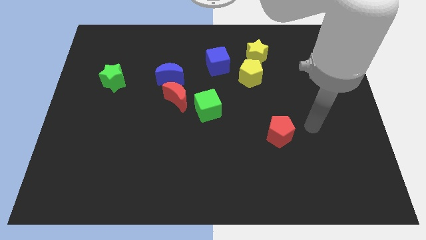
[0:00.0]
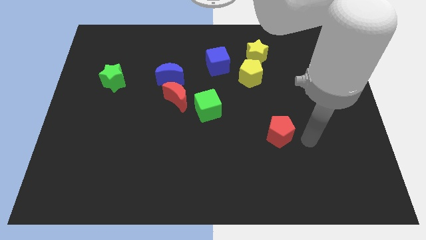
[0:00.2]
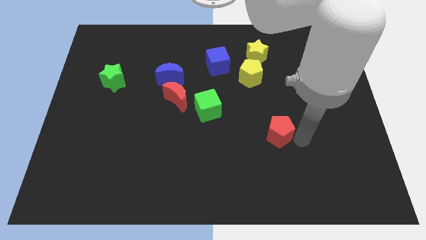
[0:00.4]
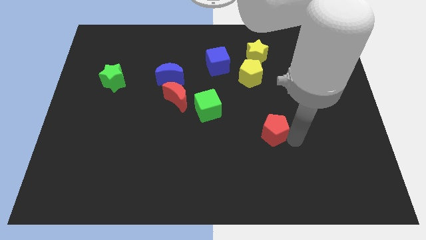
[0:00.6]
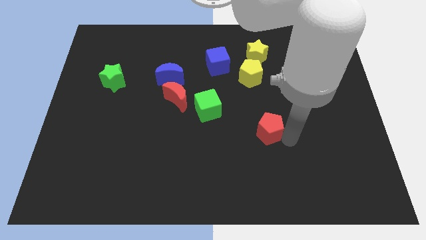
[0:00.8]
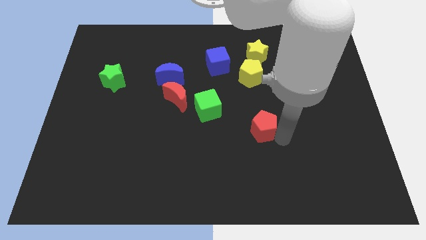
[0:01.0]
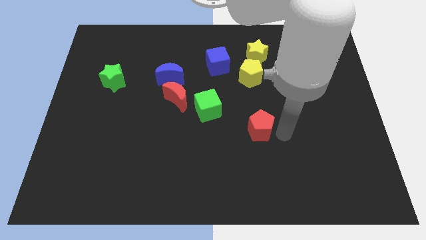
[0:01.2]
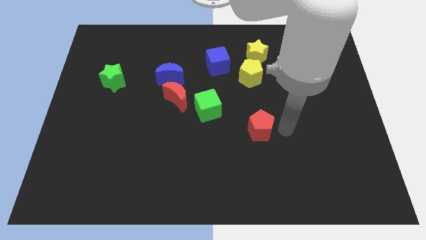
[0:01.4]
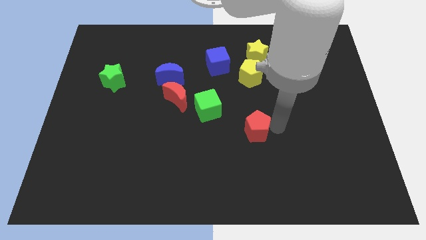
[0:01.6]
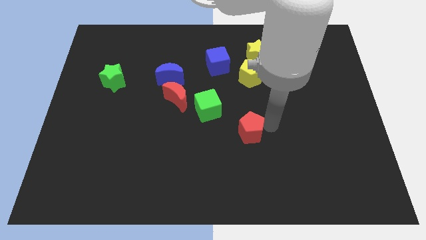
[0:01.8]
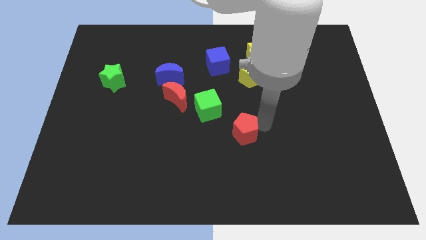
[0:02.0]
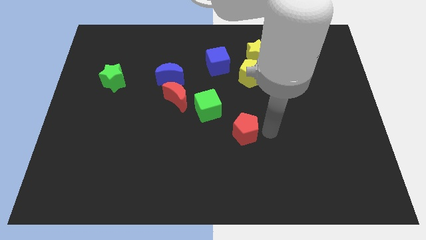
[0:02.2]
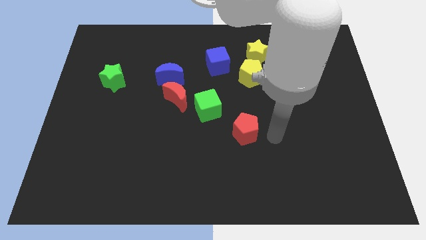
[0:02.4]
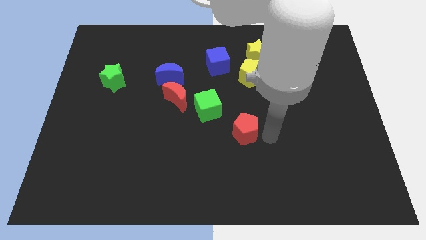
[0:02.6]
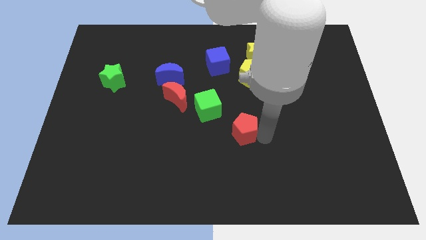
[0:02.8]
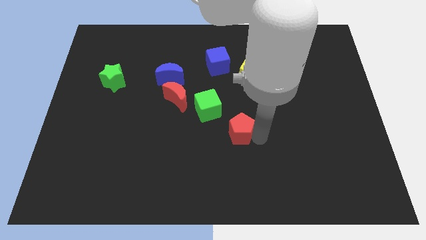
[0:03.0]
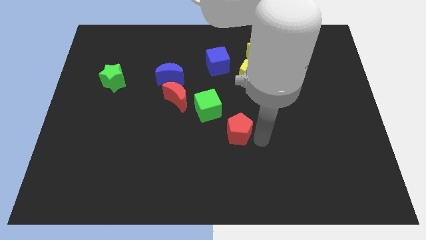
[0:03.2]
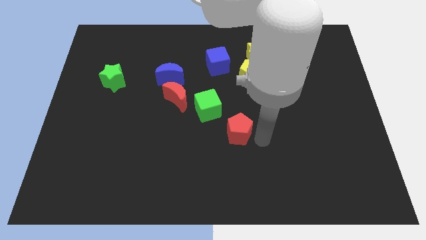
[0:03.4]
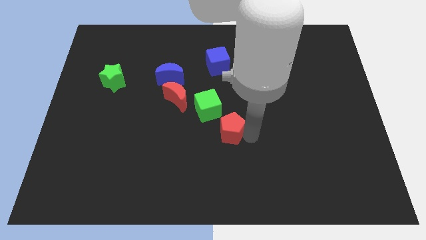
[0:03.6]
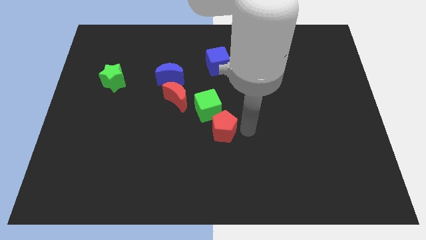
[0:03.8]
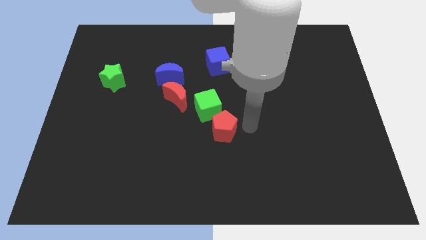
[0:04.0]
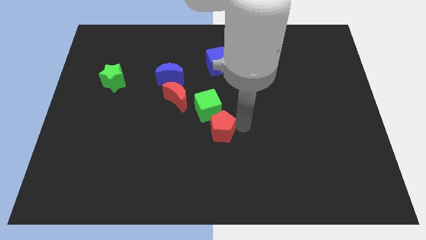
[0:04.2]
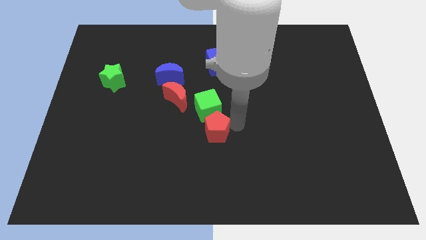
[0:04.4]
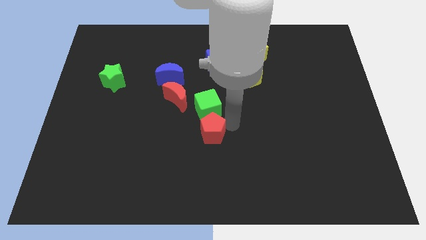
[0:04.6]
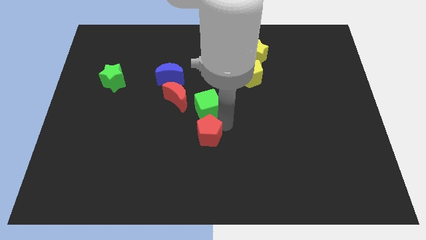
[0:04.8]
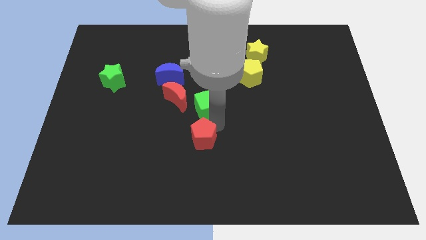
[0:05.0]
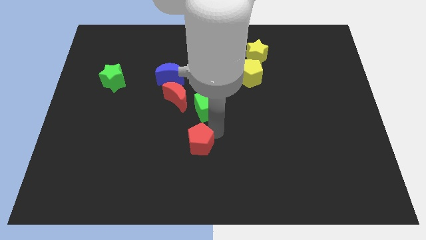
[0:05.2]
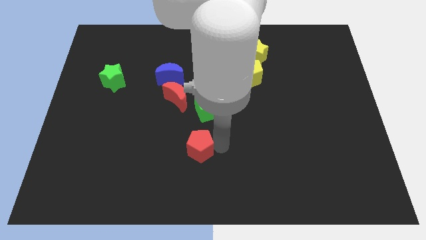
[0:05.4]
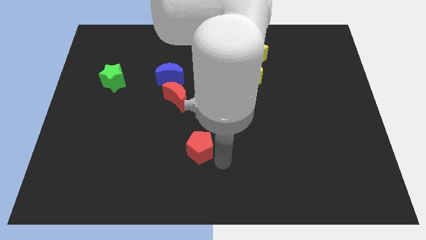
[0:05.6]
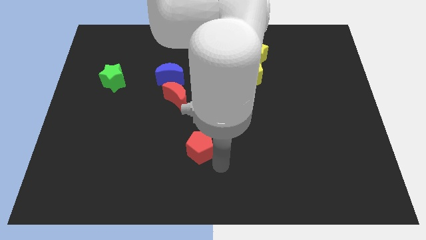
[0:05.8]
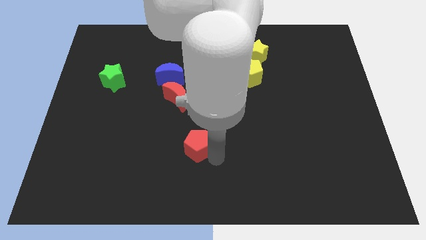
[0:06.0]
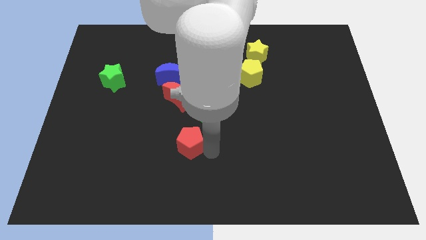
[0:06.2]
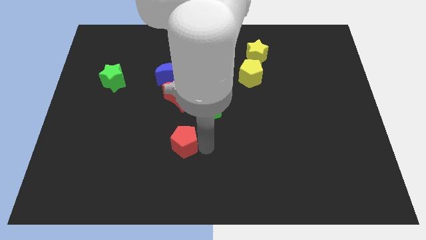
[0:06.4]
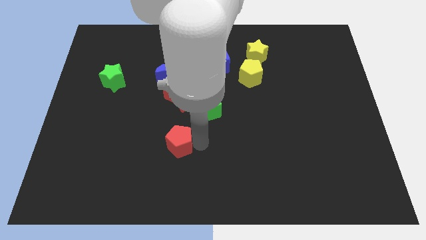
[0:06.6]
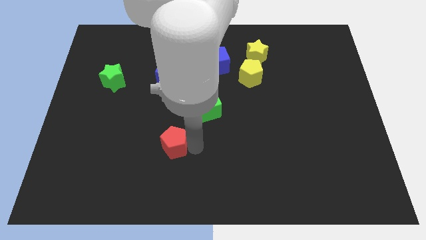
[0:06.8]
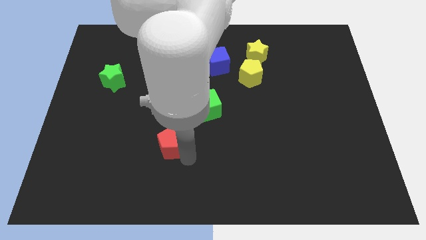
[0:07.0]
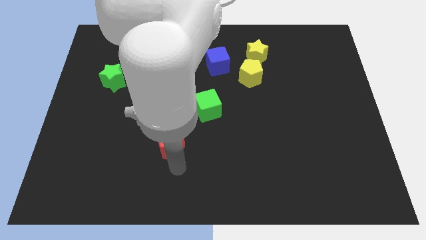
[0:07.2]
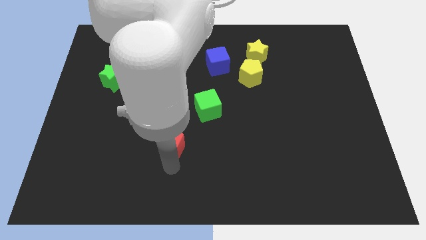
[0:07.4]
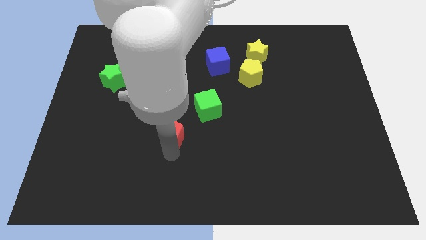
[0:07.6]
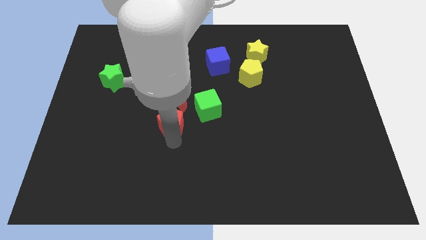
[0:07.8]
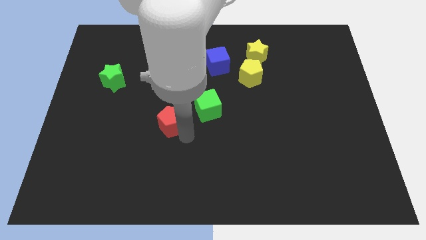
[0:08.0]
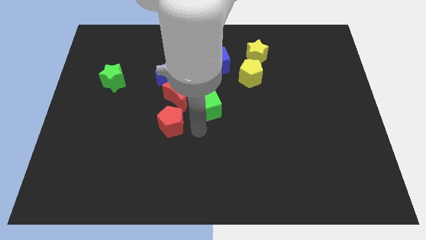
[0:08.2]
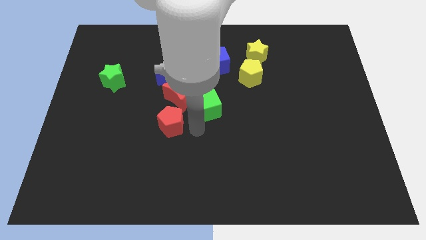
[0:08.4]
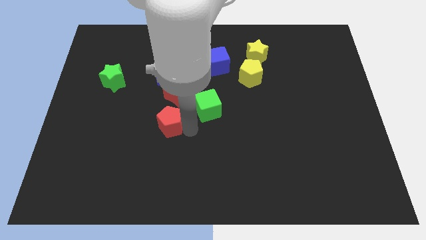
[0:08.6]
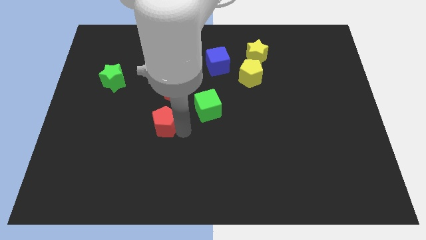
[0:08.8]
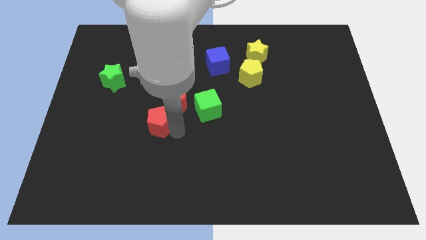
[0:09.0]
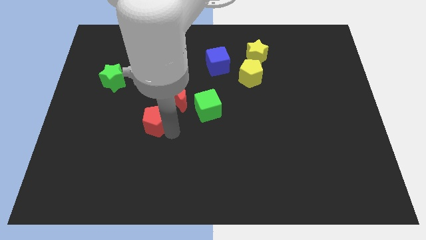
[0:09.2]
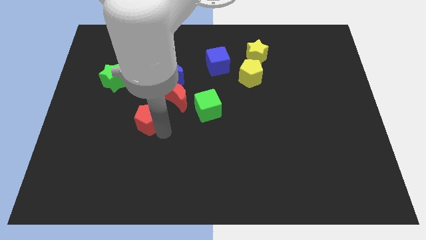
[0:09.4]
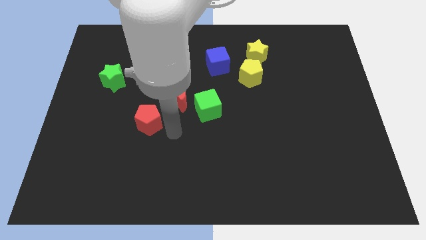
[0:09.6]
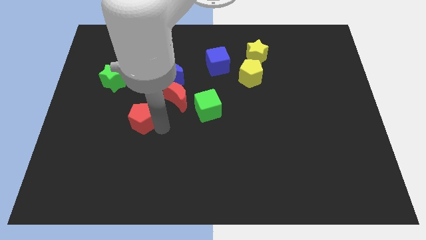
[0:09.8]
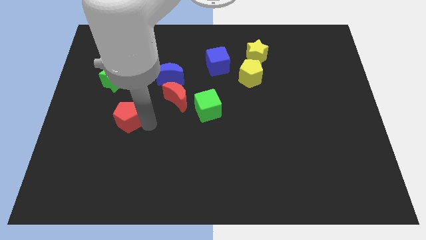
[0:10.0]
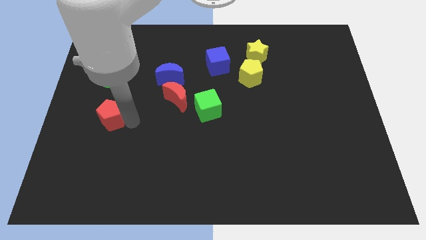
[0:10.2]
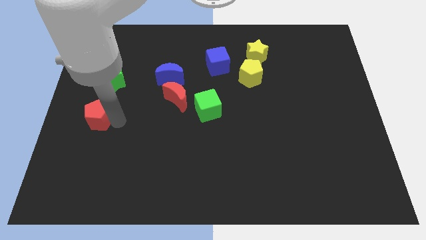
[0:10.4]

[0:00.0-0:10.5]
move the red pentagon to the left side

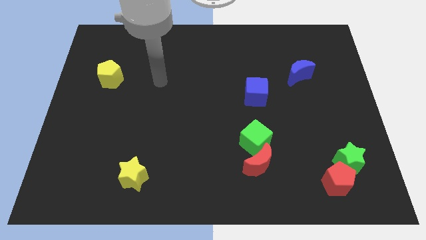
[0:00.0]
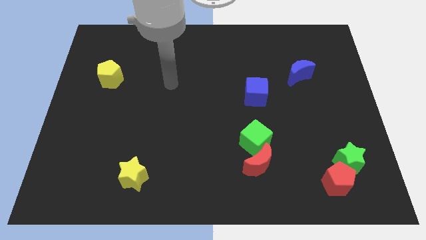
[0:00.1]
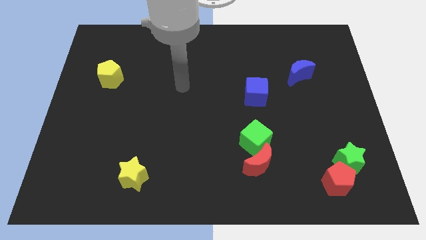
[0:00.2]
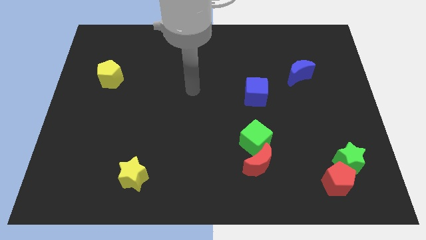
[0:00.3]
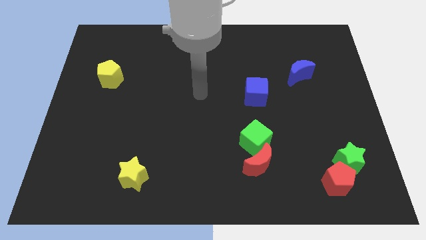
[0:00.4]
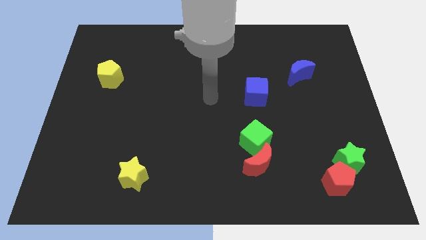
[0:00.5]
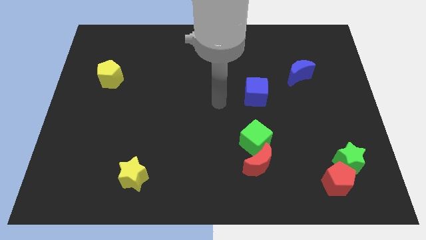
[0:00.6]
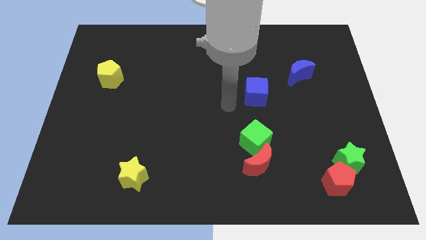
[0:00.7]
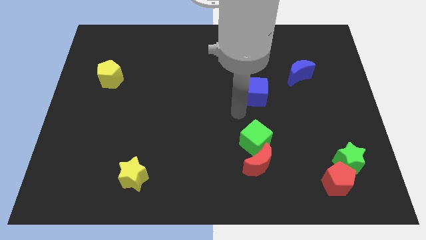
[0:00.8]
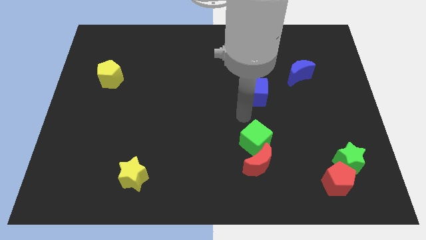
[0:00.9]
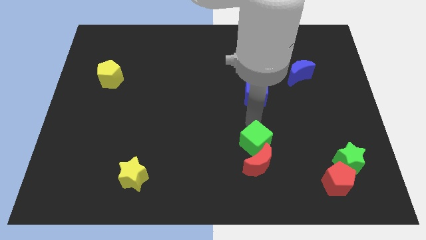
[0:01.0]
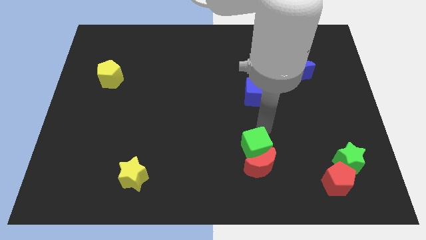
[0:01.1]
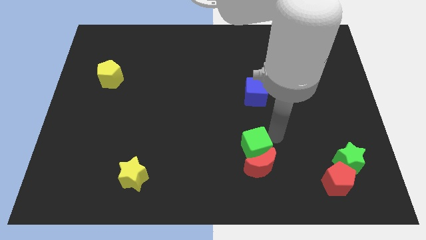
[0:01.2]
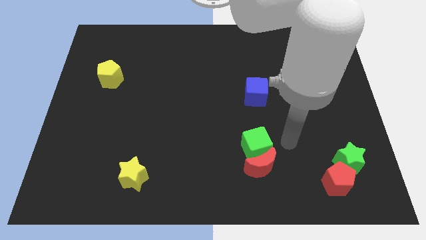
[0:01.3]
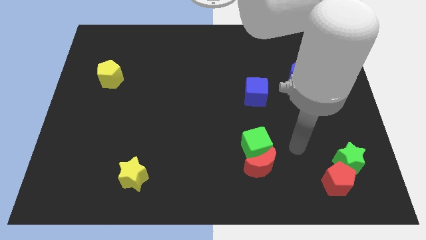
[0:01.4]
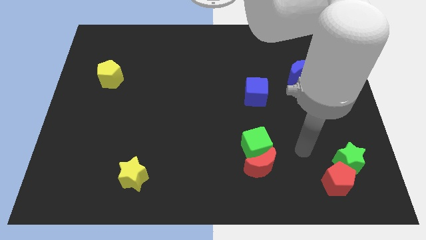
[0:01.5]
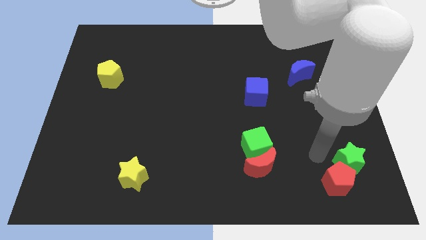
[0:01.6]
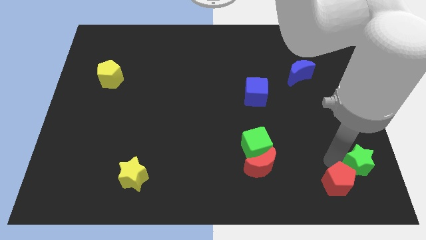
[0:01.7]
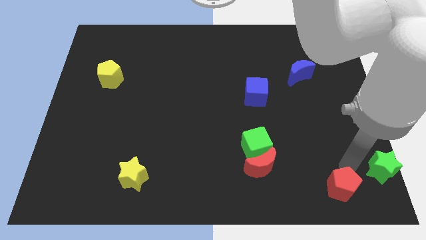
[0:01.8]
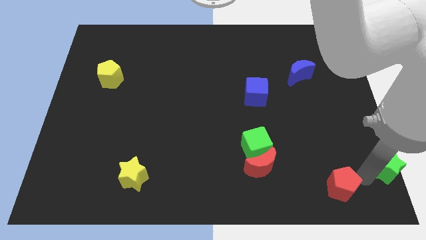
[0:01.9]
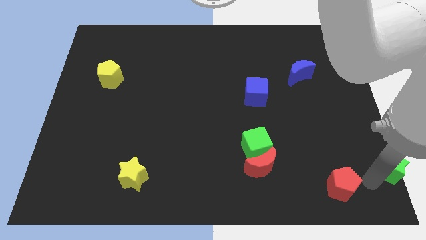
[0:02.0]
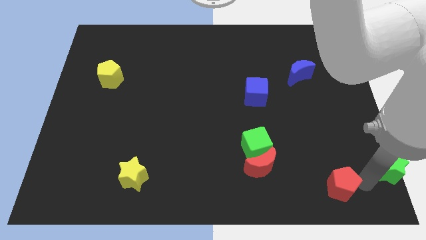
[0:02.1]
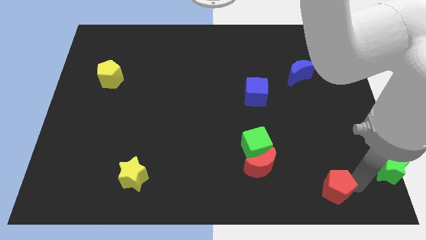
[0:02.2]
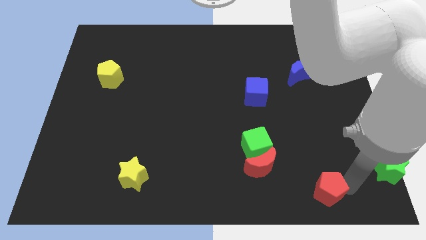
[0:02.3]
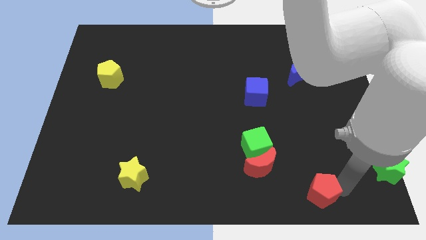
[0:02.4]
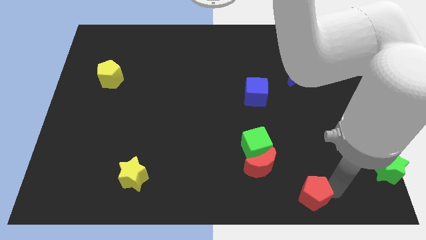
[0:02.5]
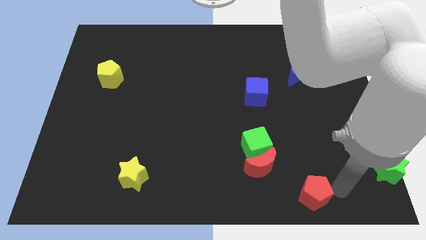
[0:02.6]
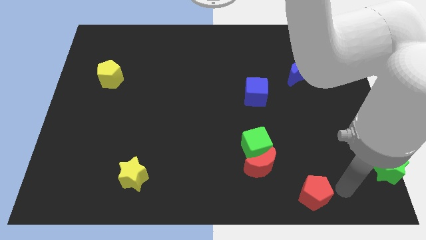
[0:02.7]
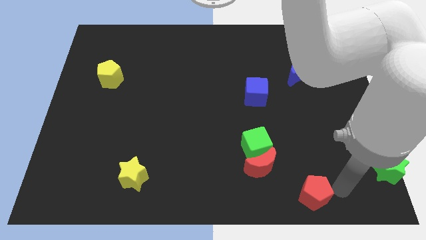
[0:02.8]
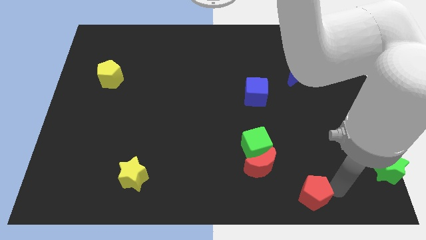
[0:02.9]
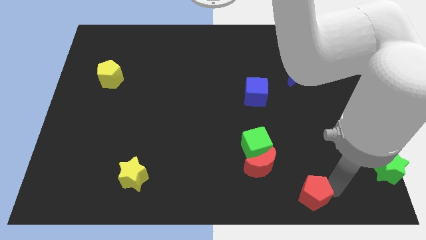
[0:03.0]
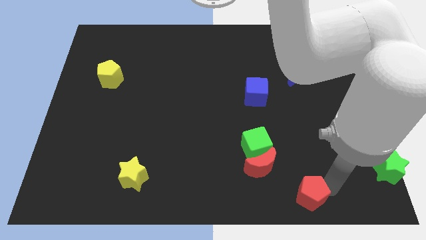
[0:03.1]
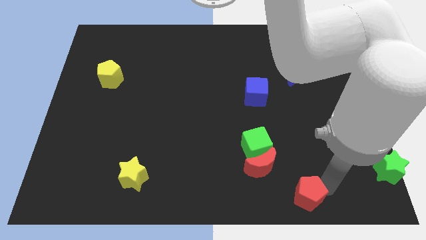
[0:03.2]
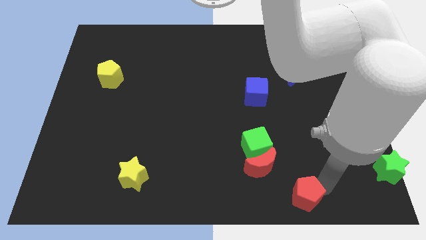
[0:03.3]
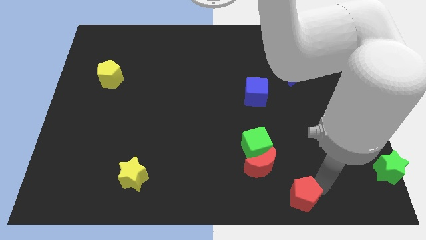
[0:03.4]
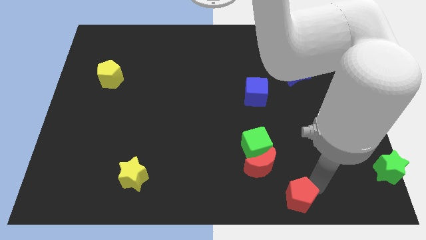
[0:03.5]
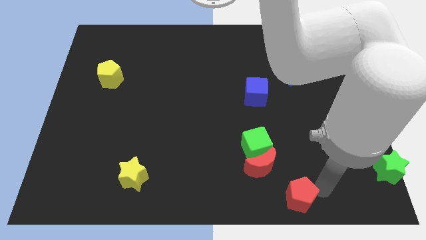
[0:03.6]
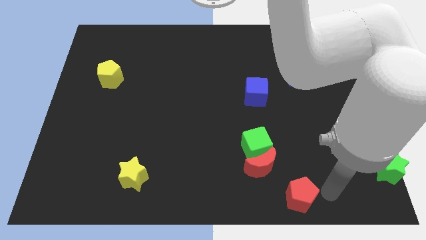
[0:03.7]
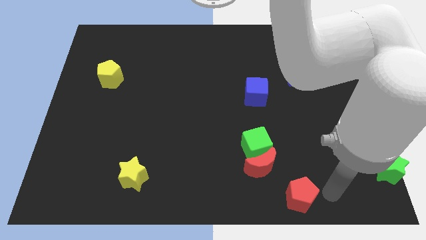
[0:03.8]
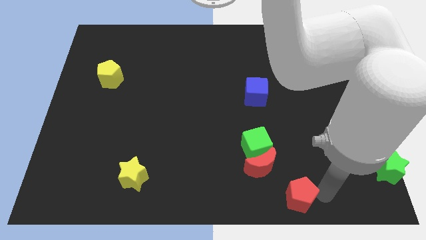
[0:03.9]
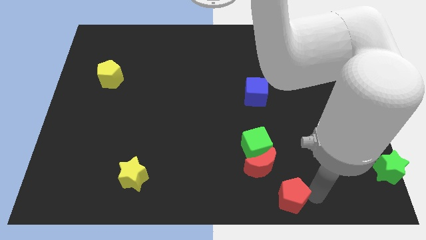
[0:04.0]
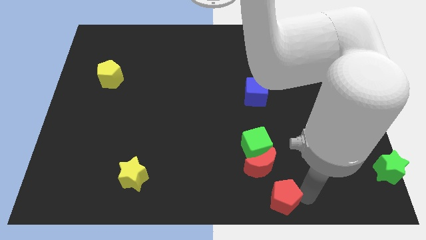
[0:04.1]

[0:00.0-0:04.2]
put the red pentagon to the bottom
